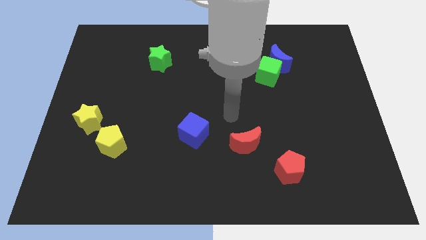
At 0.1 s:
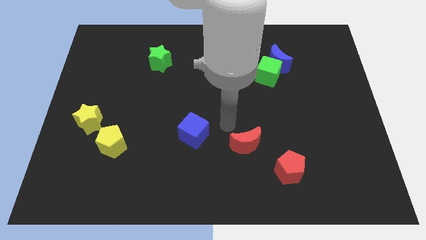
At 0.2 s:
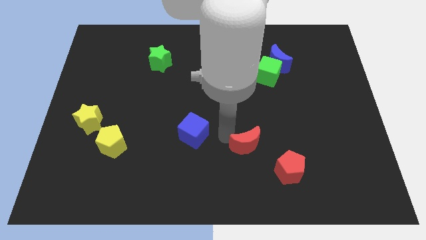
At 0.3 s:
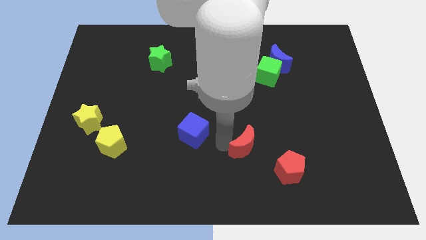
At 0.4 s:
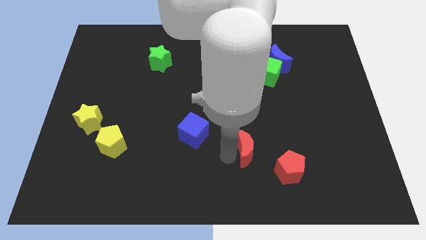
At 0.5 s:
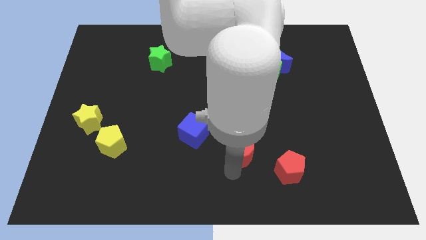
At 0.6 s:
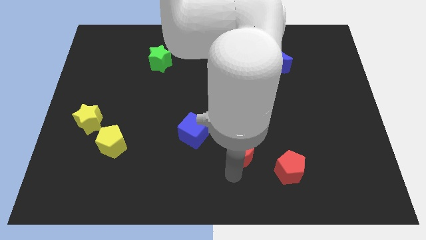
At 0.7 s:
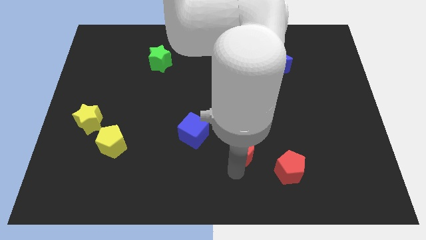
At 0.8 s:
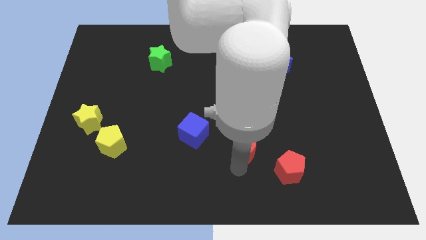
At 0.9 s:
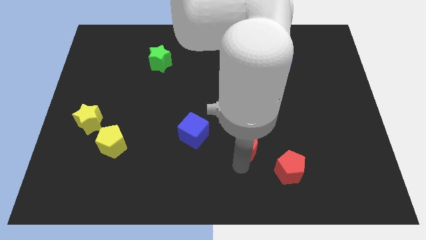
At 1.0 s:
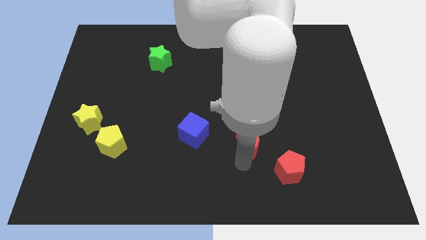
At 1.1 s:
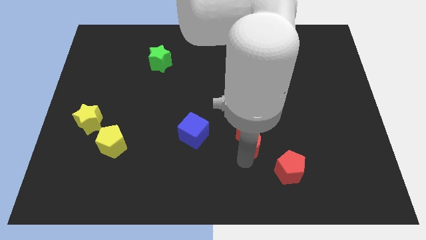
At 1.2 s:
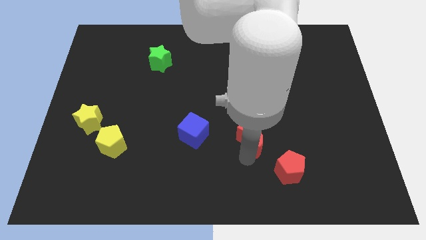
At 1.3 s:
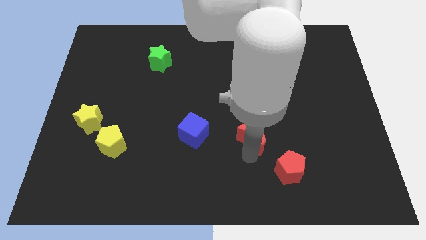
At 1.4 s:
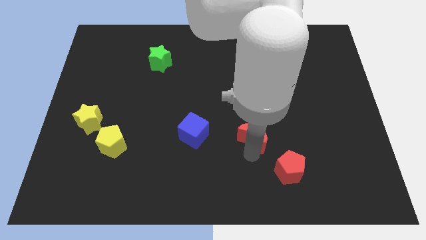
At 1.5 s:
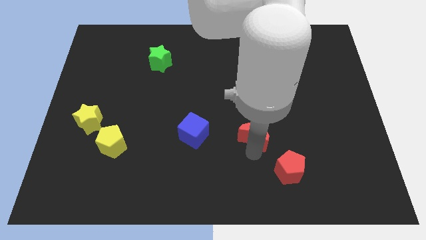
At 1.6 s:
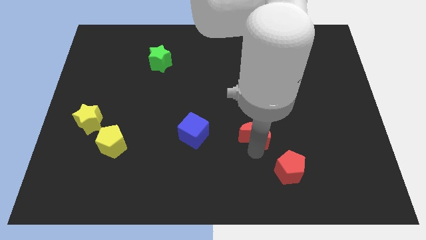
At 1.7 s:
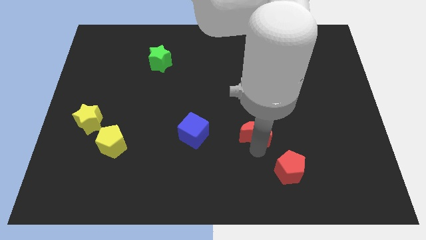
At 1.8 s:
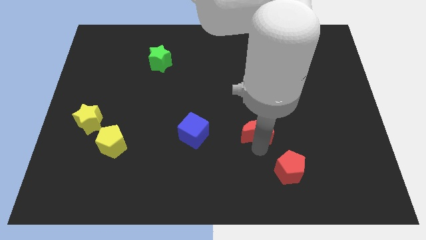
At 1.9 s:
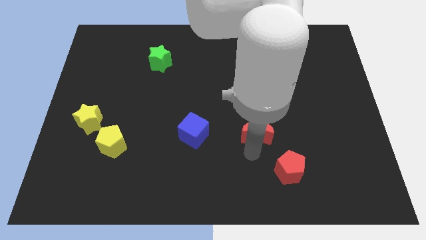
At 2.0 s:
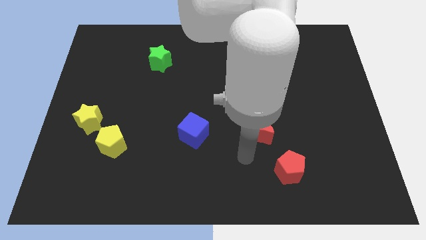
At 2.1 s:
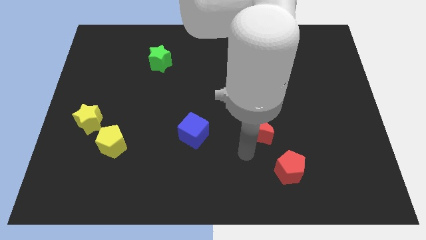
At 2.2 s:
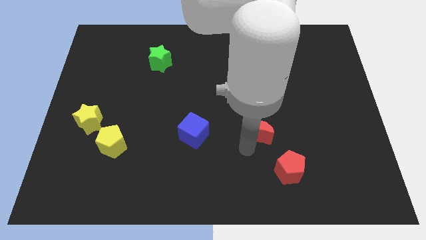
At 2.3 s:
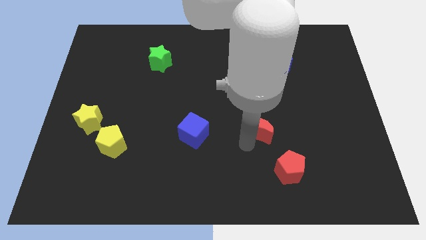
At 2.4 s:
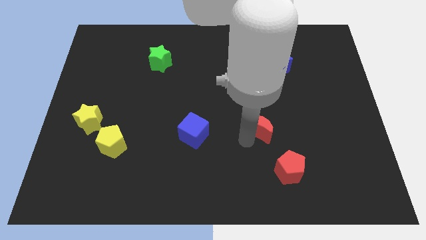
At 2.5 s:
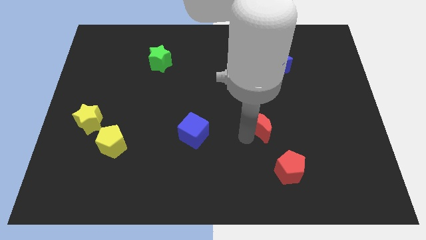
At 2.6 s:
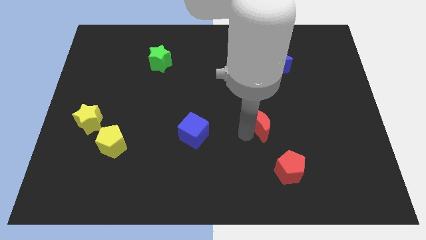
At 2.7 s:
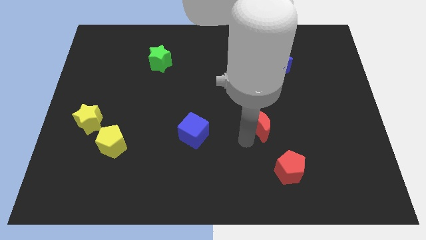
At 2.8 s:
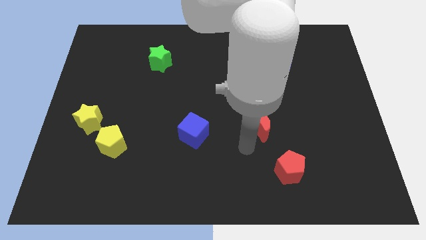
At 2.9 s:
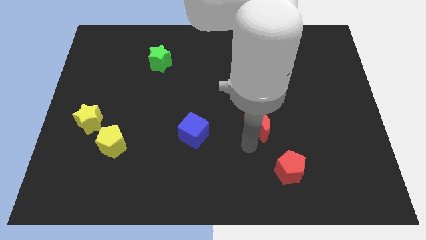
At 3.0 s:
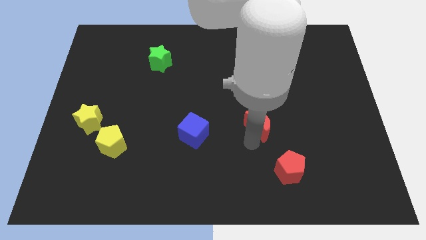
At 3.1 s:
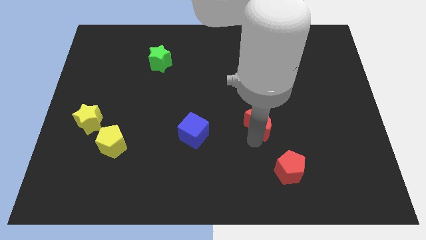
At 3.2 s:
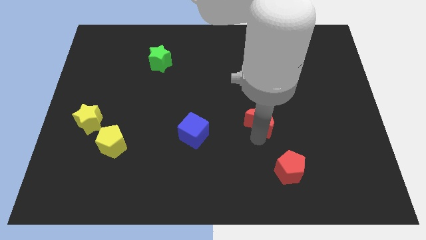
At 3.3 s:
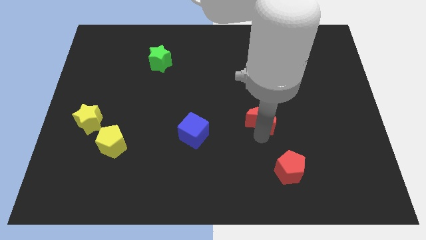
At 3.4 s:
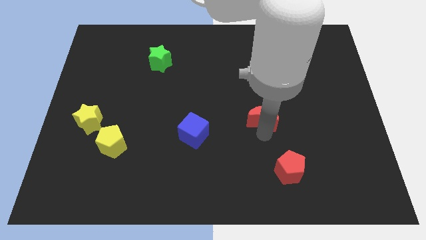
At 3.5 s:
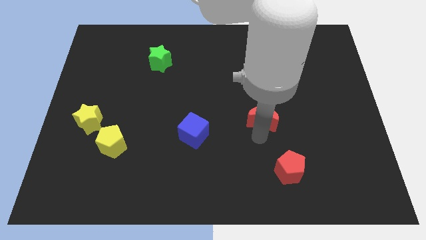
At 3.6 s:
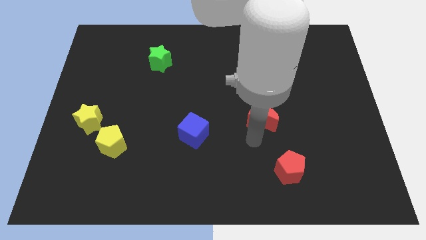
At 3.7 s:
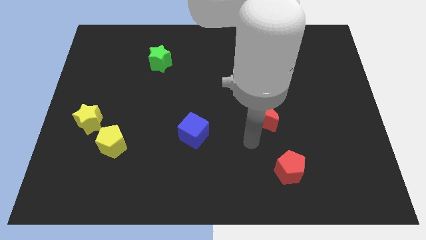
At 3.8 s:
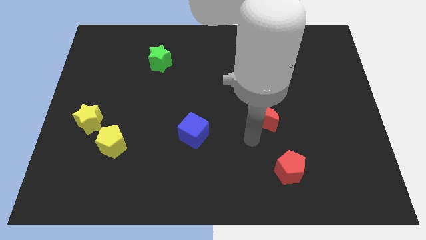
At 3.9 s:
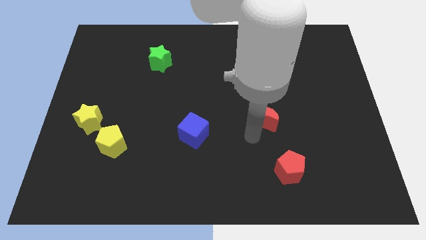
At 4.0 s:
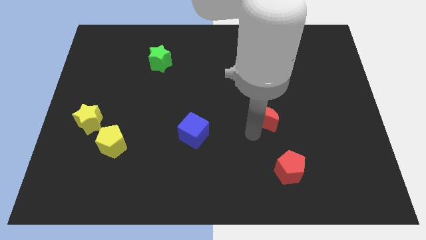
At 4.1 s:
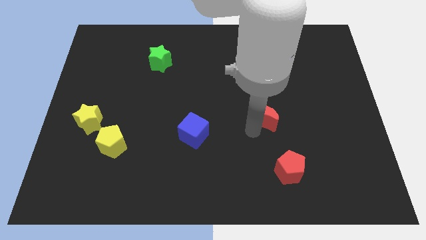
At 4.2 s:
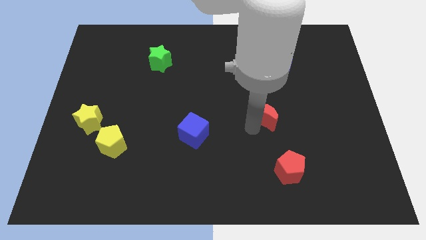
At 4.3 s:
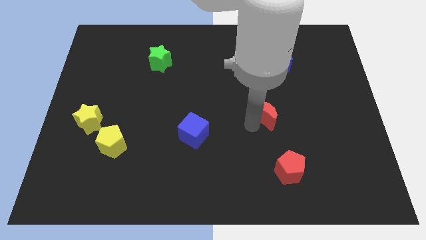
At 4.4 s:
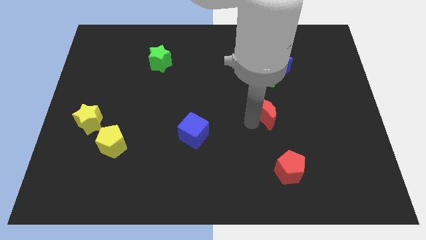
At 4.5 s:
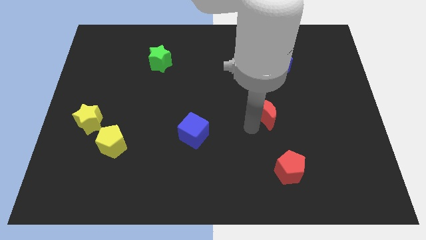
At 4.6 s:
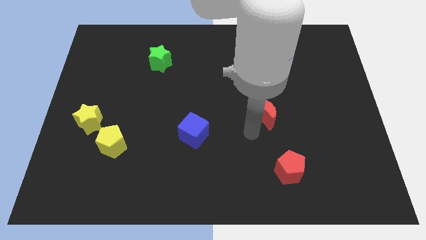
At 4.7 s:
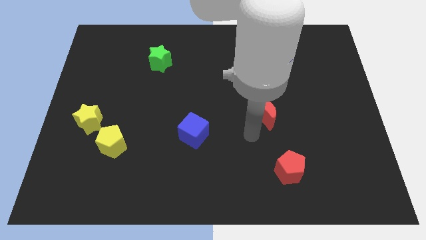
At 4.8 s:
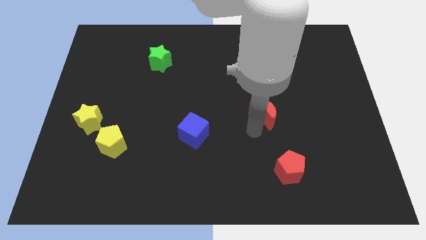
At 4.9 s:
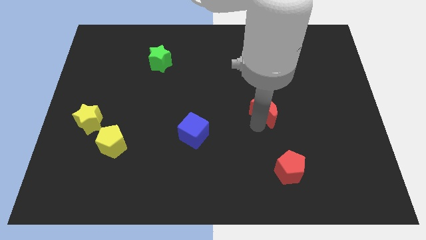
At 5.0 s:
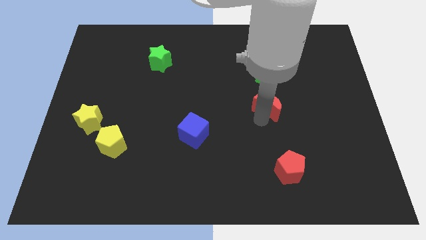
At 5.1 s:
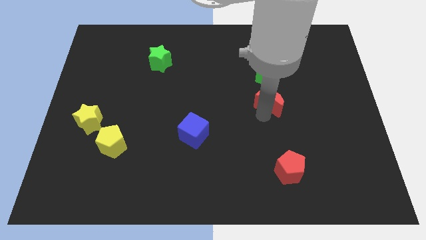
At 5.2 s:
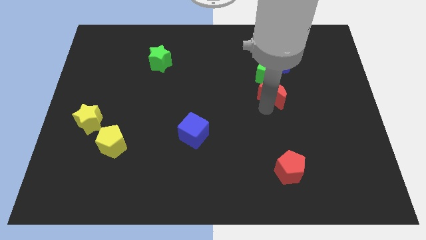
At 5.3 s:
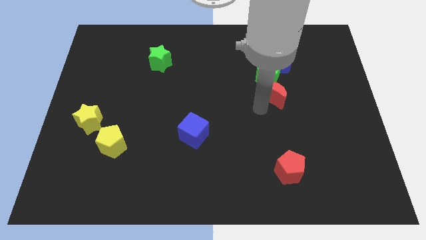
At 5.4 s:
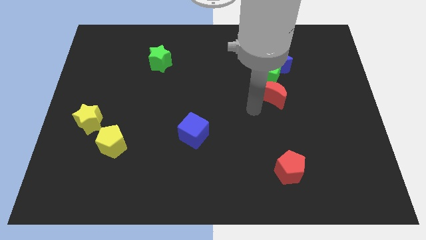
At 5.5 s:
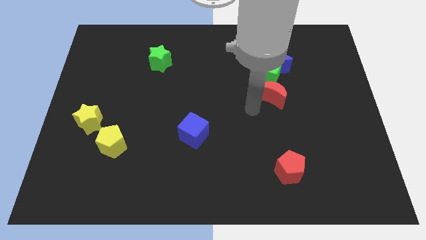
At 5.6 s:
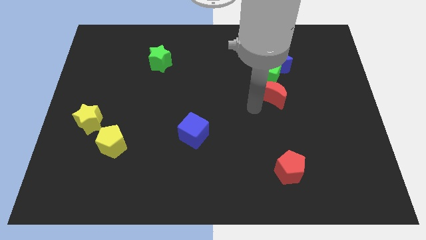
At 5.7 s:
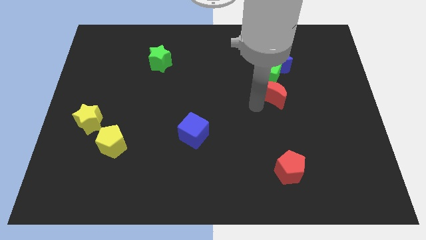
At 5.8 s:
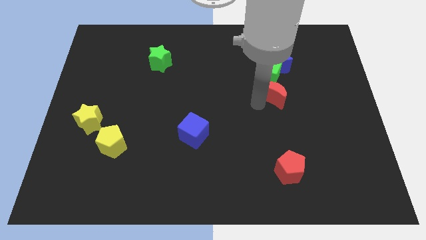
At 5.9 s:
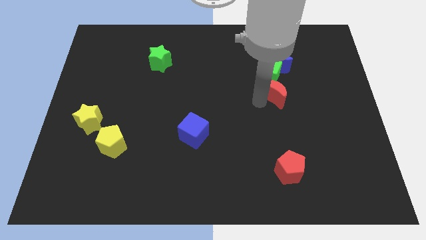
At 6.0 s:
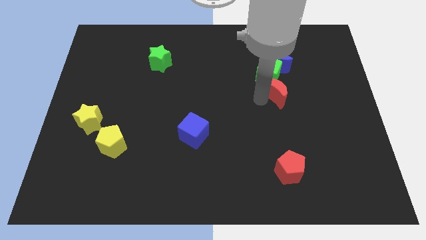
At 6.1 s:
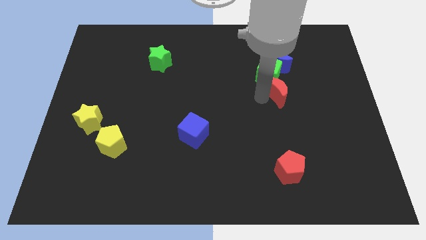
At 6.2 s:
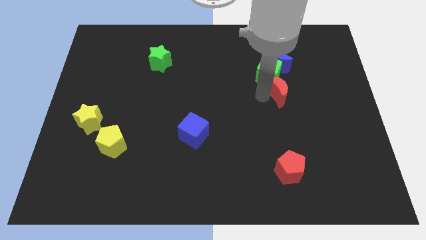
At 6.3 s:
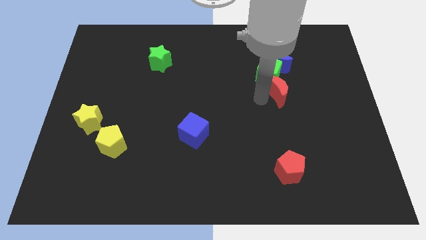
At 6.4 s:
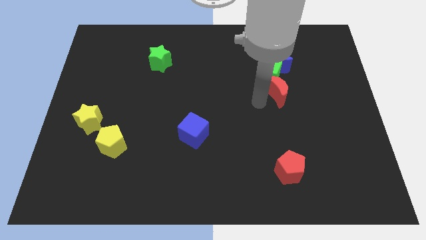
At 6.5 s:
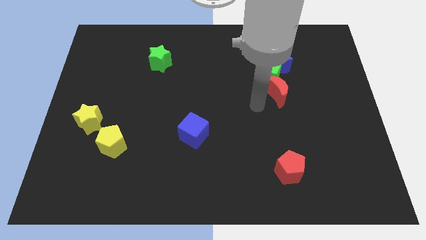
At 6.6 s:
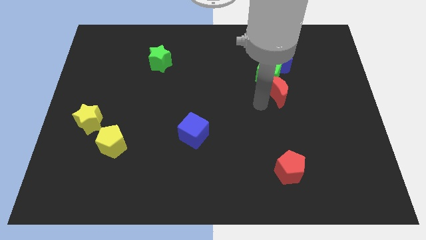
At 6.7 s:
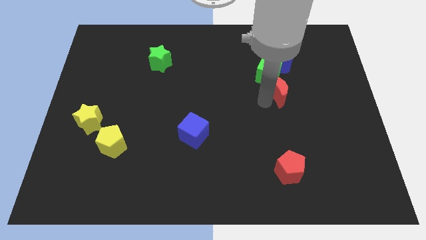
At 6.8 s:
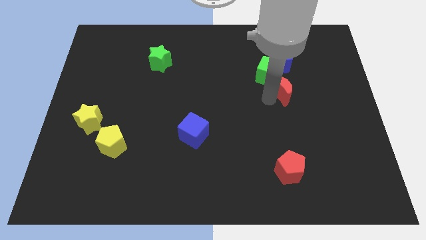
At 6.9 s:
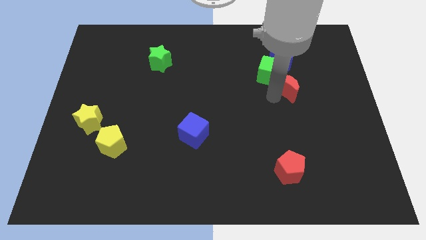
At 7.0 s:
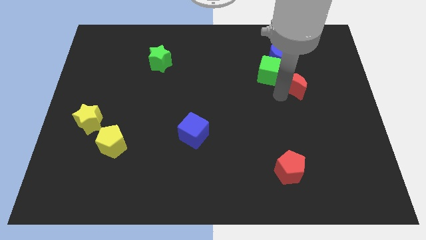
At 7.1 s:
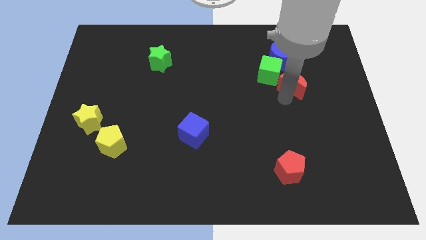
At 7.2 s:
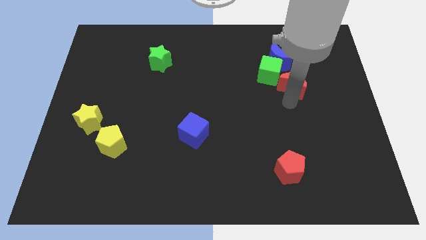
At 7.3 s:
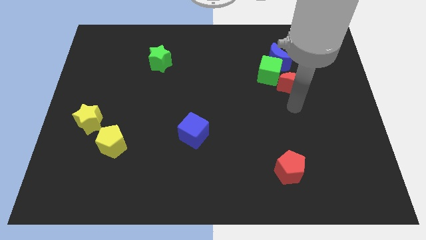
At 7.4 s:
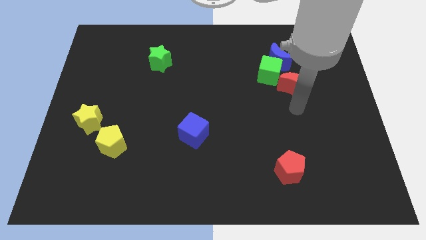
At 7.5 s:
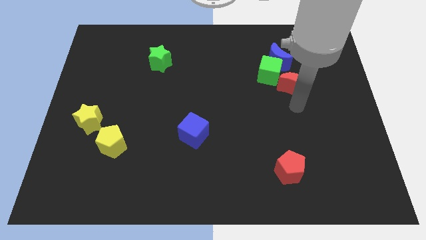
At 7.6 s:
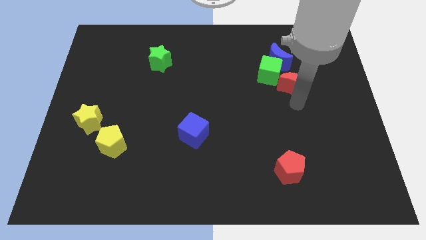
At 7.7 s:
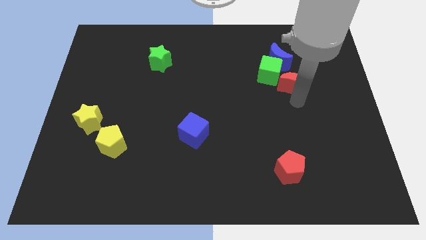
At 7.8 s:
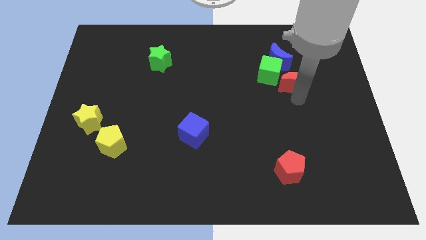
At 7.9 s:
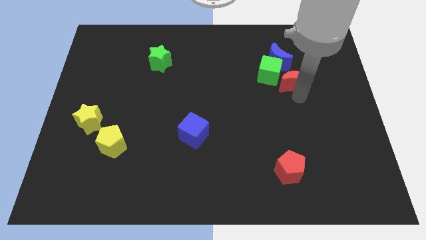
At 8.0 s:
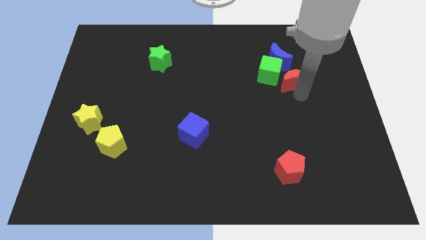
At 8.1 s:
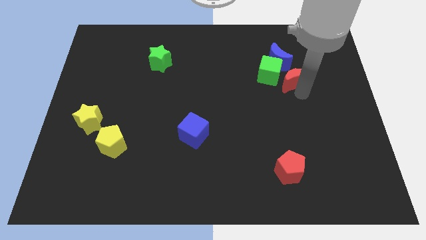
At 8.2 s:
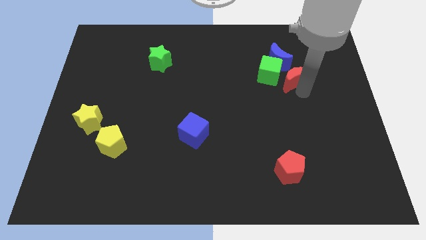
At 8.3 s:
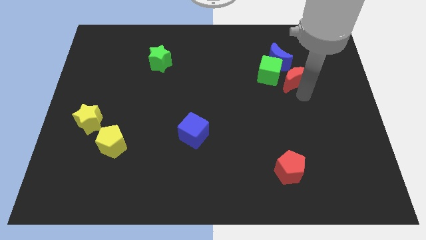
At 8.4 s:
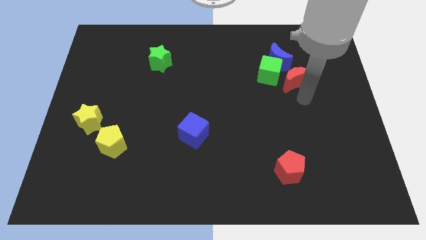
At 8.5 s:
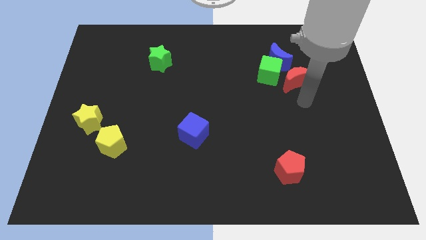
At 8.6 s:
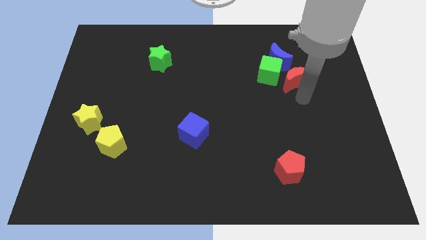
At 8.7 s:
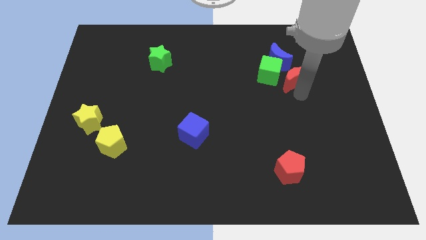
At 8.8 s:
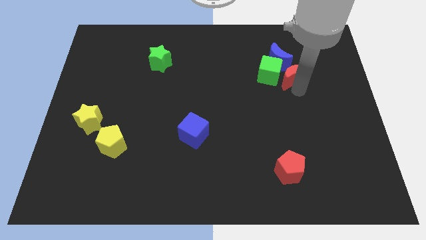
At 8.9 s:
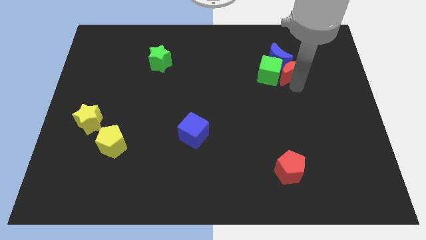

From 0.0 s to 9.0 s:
move the red moon towards the blue moon
